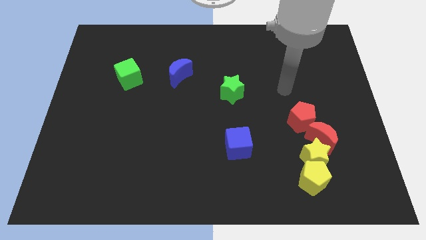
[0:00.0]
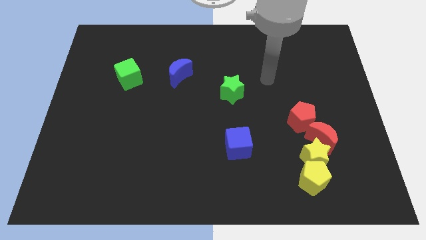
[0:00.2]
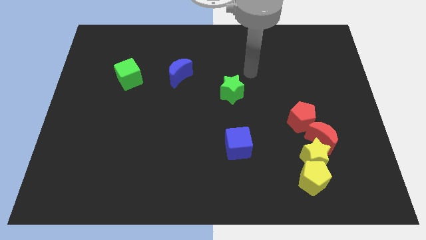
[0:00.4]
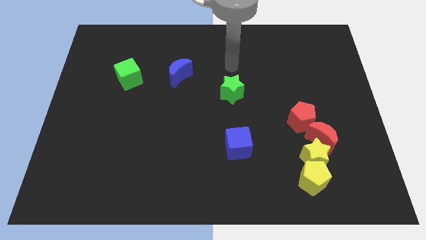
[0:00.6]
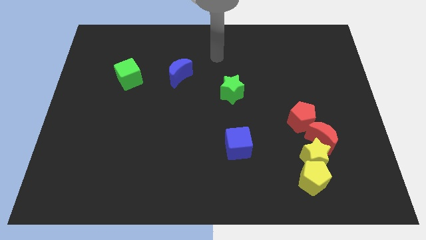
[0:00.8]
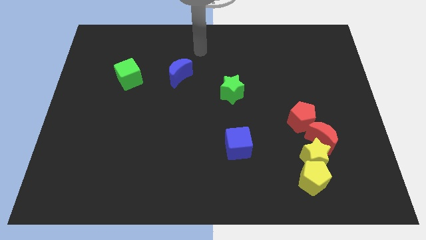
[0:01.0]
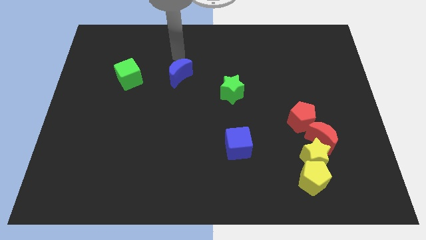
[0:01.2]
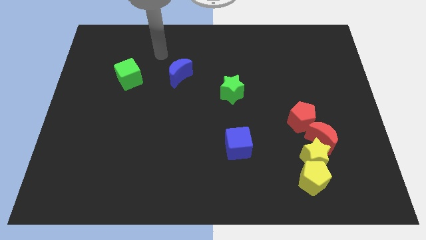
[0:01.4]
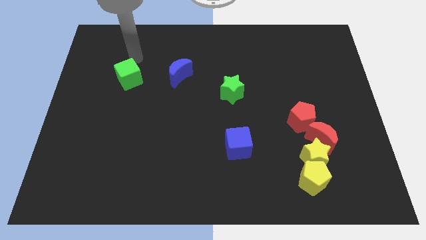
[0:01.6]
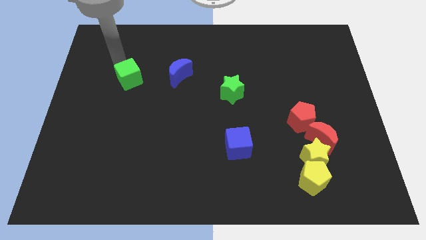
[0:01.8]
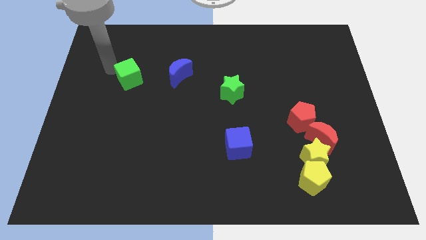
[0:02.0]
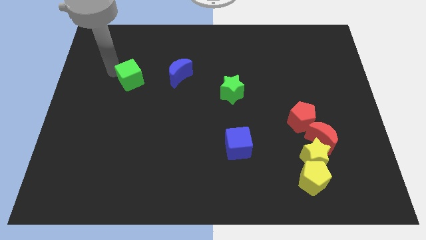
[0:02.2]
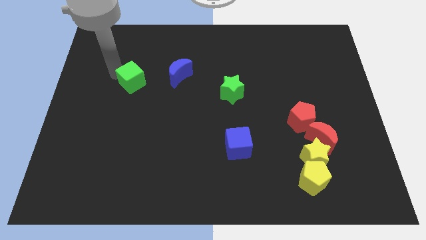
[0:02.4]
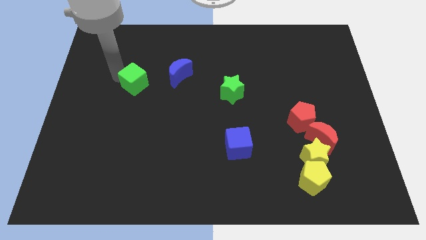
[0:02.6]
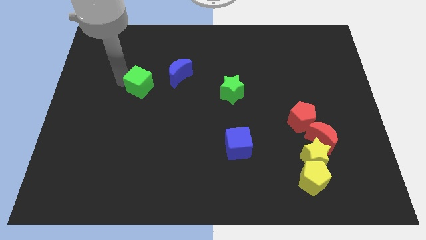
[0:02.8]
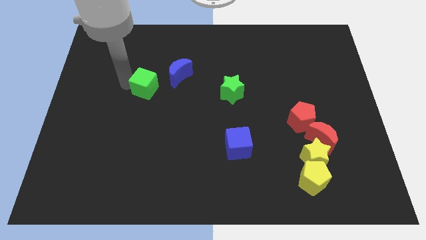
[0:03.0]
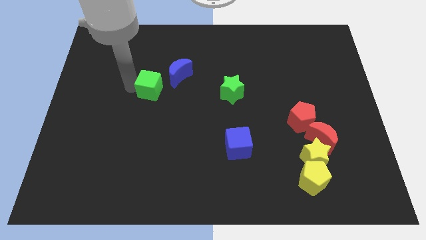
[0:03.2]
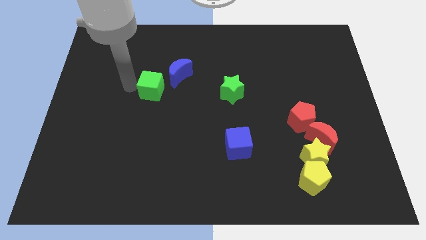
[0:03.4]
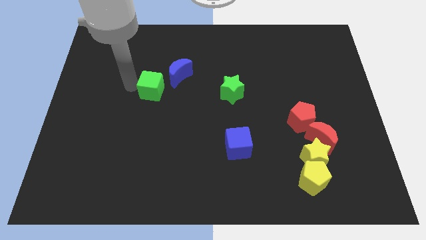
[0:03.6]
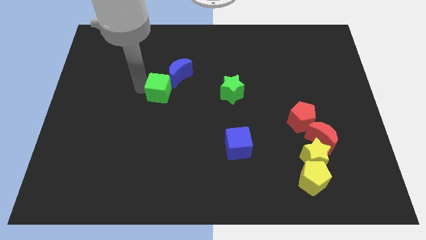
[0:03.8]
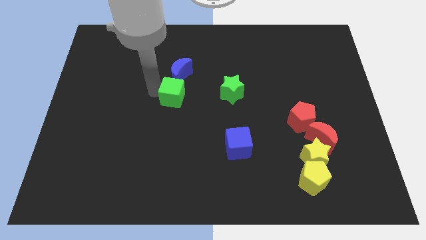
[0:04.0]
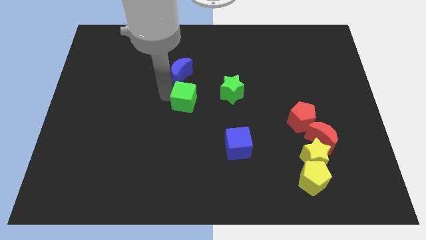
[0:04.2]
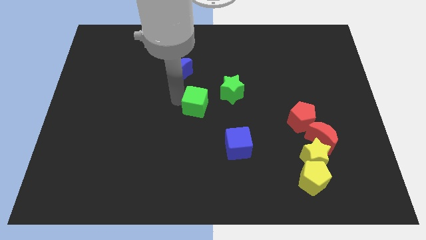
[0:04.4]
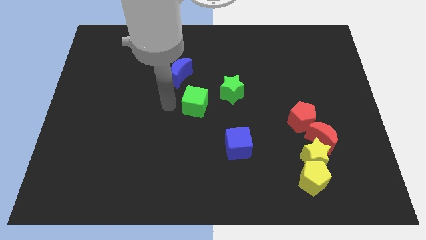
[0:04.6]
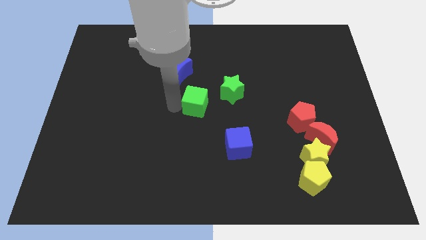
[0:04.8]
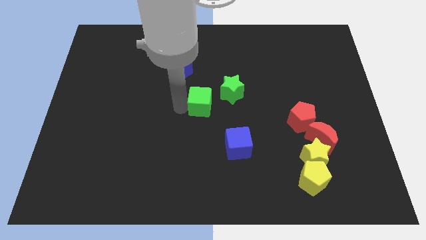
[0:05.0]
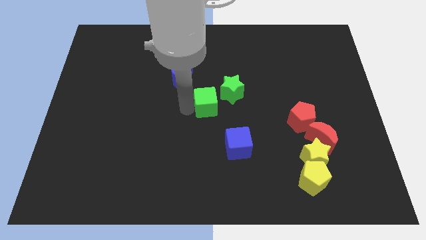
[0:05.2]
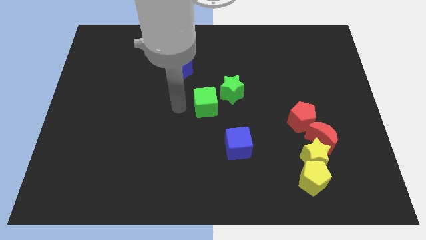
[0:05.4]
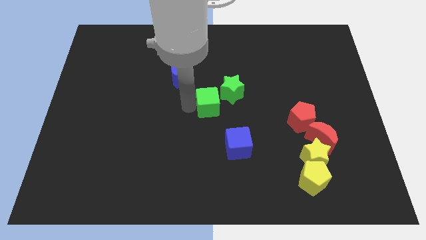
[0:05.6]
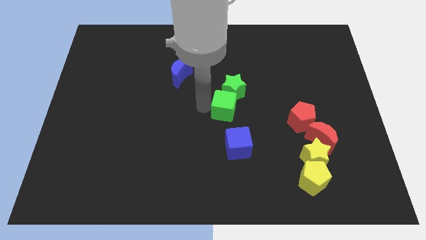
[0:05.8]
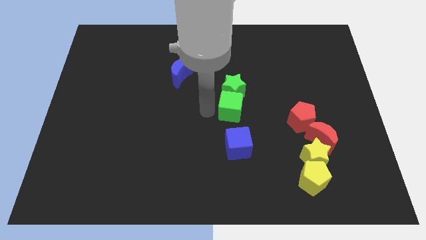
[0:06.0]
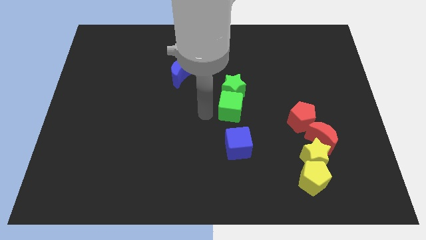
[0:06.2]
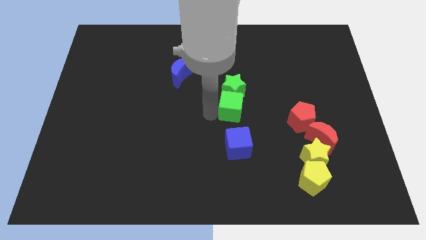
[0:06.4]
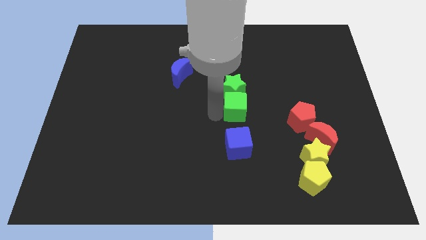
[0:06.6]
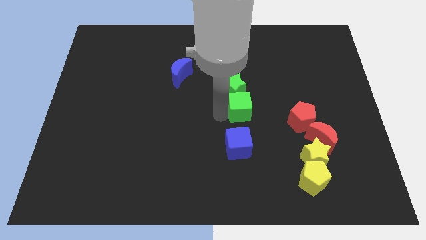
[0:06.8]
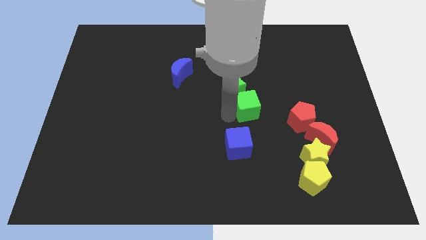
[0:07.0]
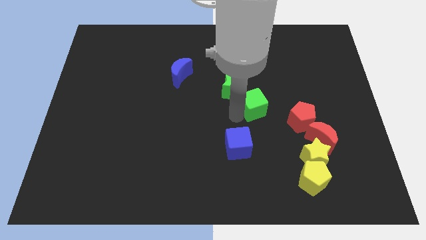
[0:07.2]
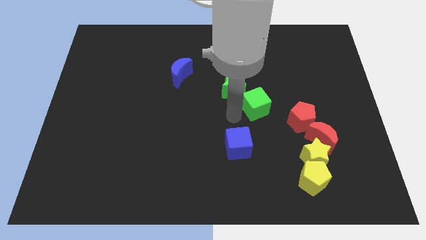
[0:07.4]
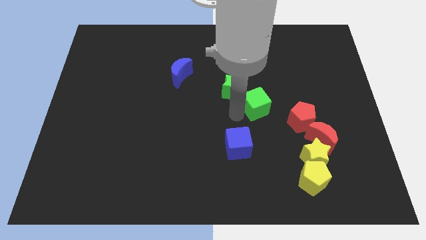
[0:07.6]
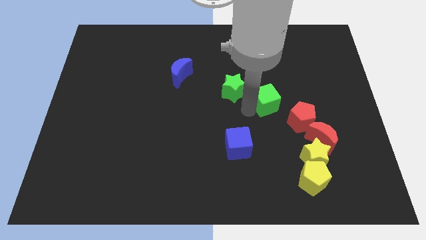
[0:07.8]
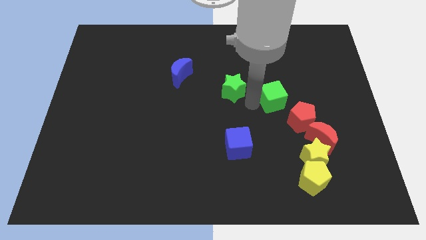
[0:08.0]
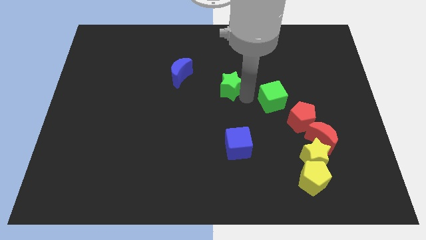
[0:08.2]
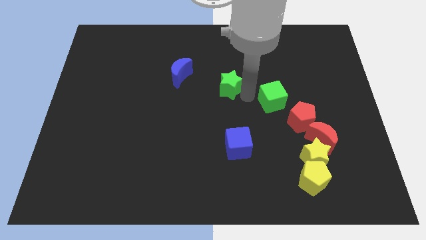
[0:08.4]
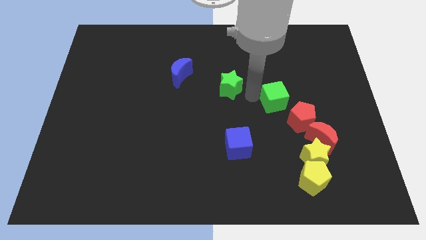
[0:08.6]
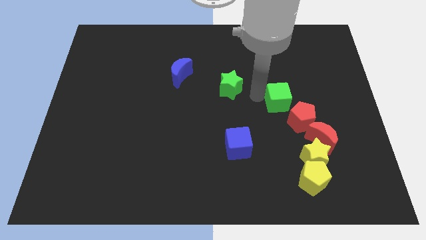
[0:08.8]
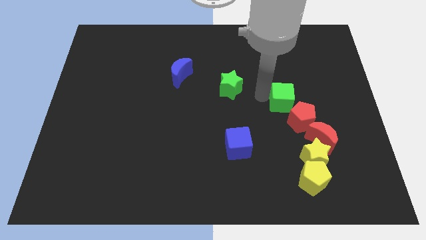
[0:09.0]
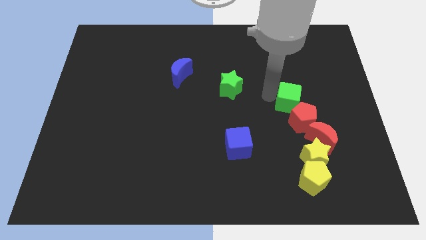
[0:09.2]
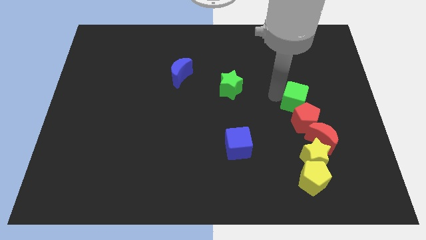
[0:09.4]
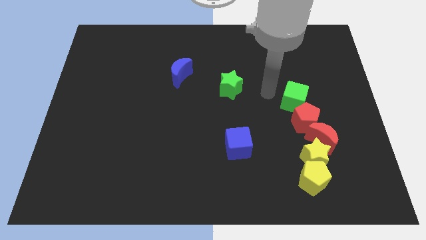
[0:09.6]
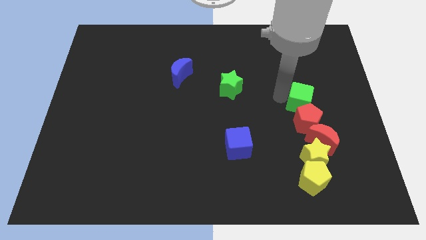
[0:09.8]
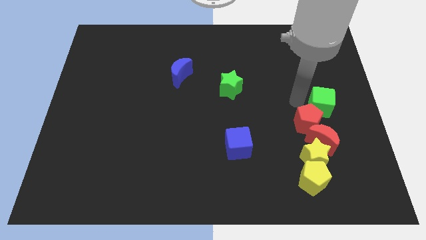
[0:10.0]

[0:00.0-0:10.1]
put the green cube to the center right

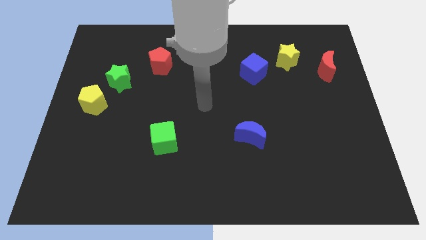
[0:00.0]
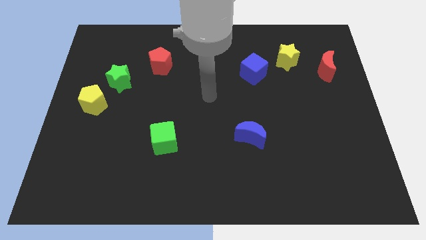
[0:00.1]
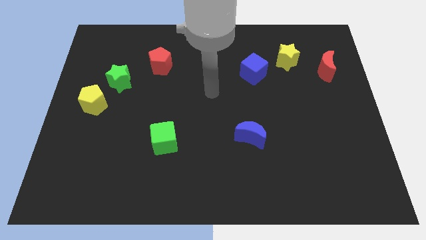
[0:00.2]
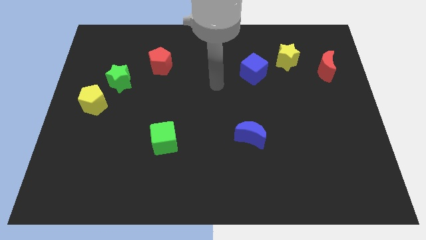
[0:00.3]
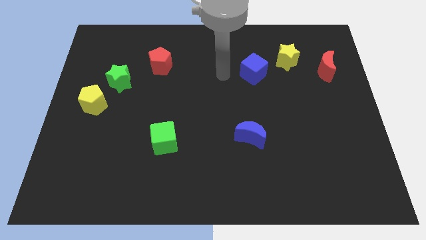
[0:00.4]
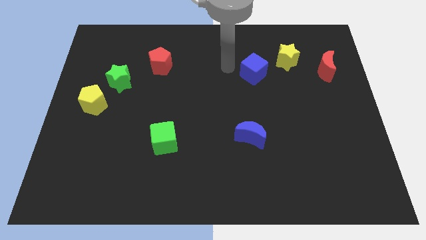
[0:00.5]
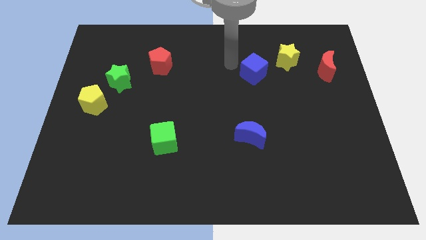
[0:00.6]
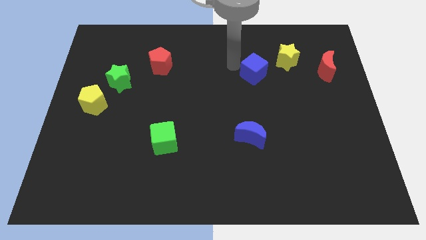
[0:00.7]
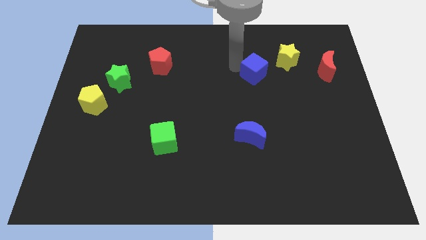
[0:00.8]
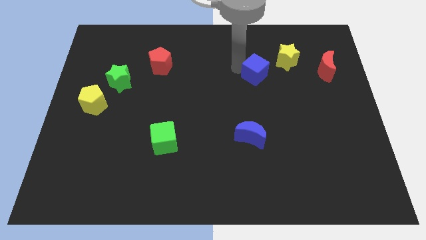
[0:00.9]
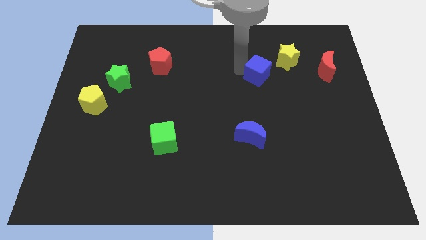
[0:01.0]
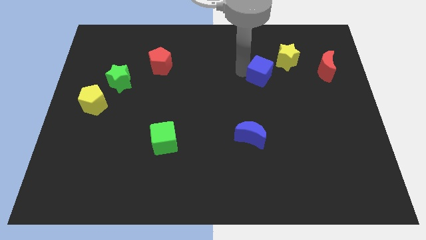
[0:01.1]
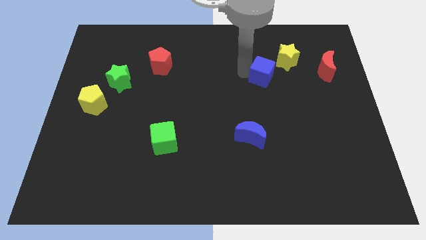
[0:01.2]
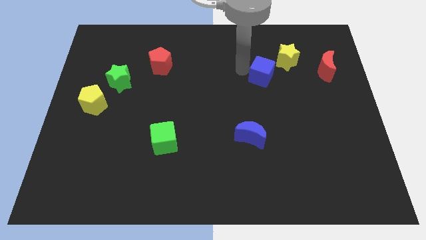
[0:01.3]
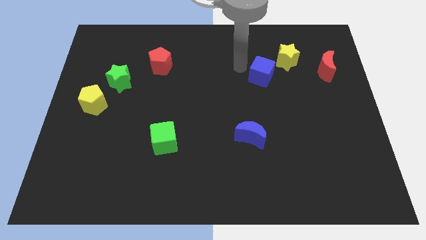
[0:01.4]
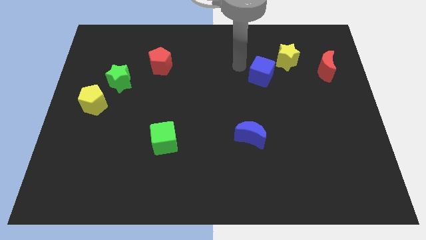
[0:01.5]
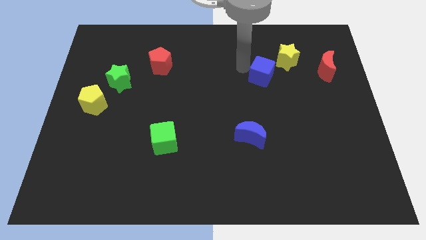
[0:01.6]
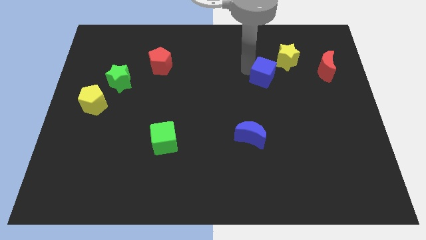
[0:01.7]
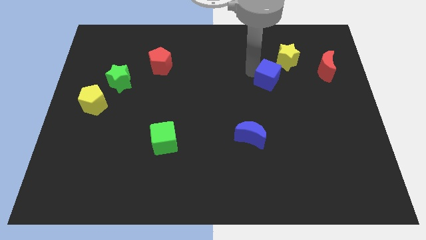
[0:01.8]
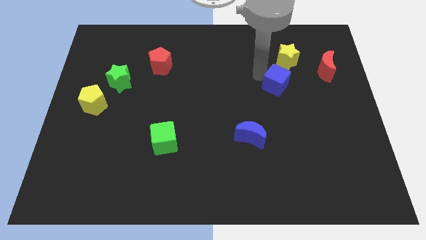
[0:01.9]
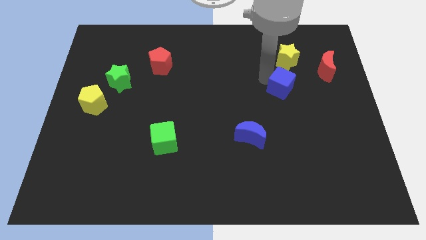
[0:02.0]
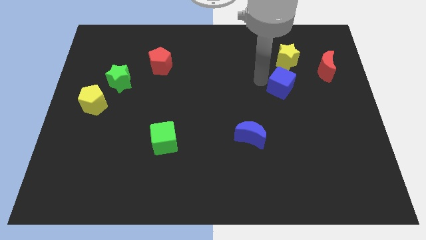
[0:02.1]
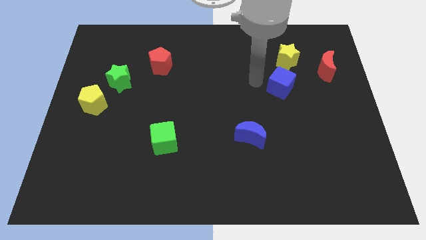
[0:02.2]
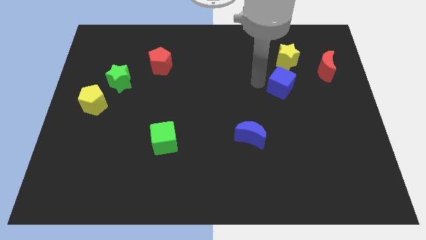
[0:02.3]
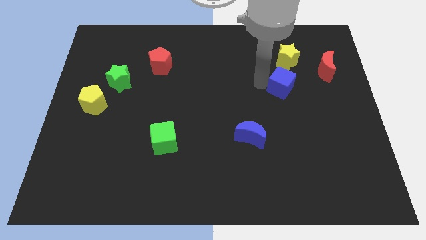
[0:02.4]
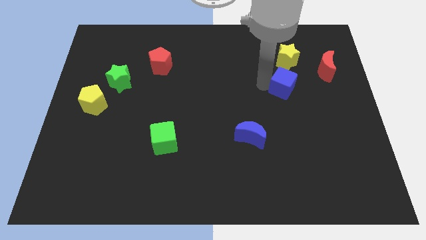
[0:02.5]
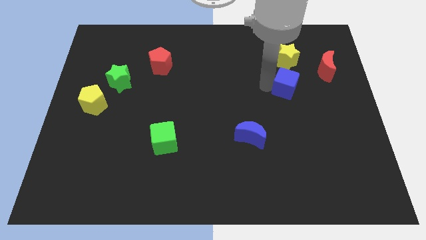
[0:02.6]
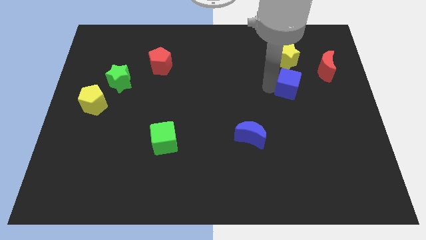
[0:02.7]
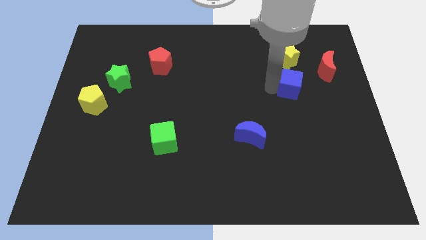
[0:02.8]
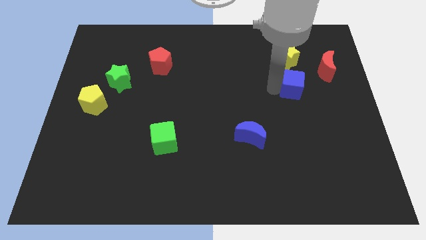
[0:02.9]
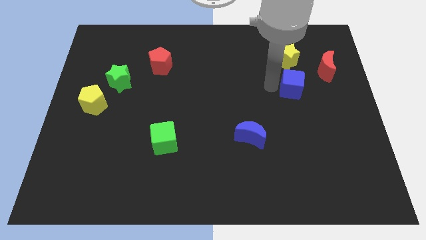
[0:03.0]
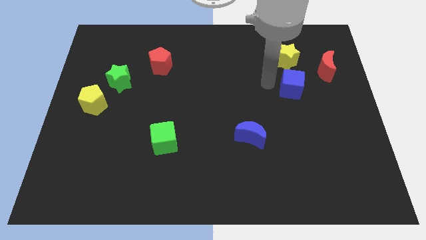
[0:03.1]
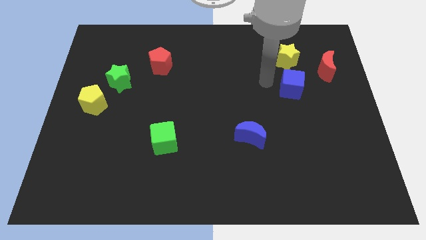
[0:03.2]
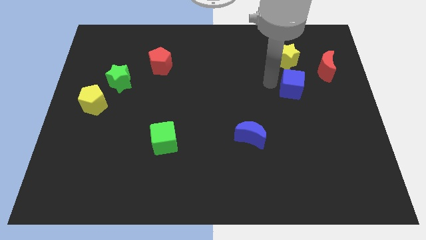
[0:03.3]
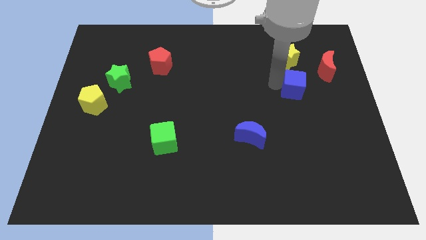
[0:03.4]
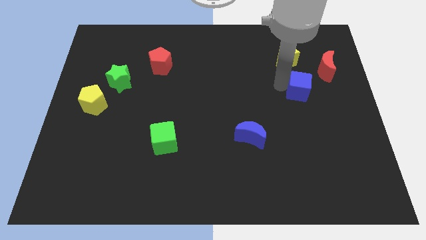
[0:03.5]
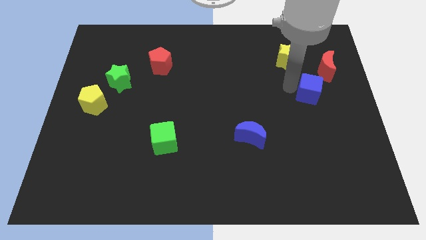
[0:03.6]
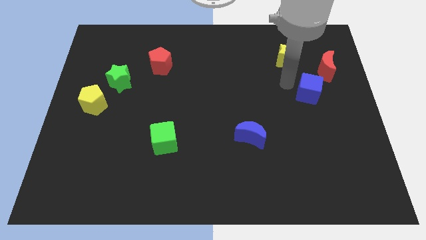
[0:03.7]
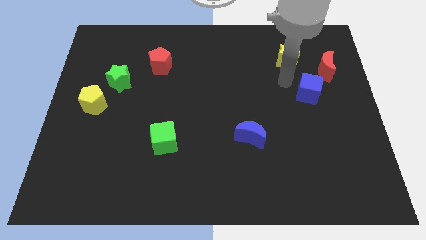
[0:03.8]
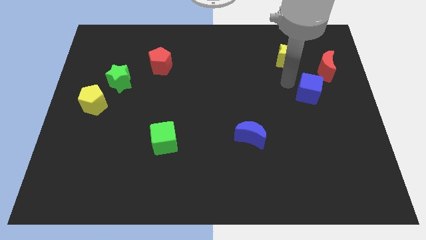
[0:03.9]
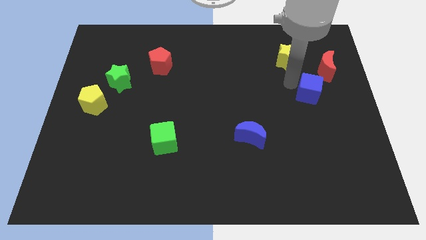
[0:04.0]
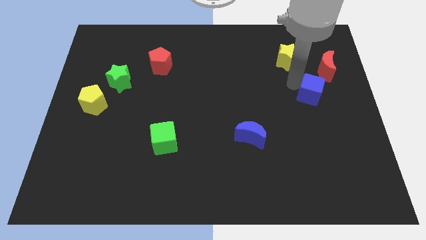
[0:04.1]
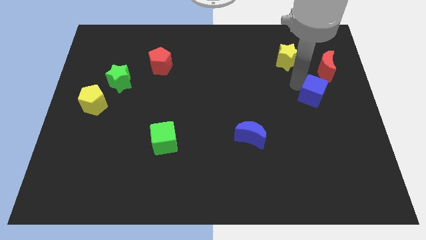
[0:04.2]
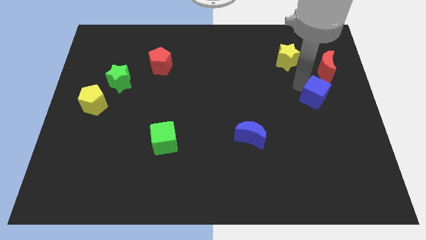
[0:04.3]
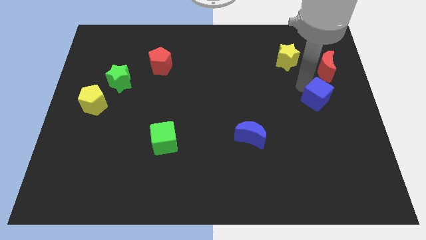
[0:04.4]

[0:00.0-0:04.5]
slide the blue cube to the center right
